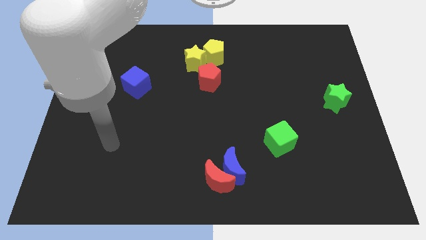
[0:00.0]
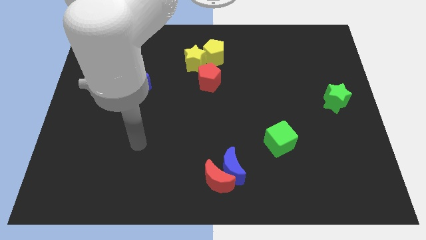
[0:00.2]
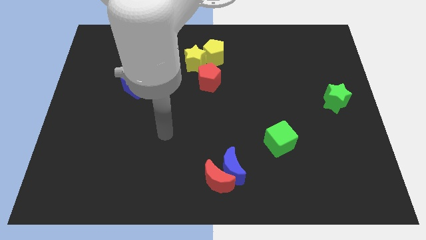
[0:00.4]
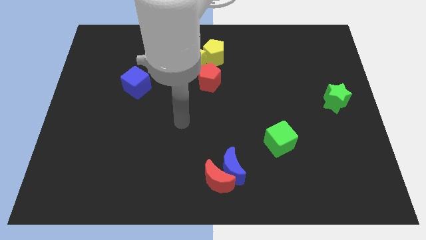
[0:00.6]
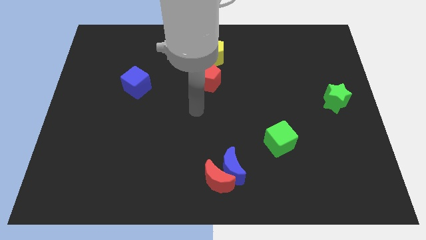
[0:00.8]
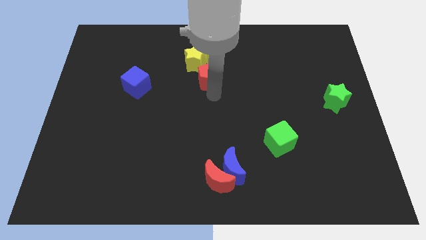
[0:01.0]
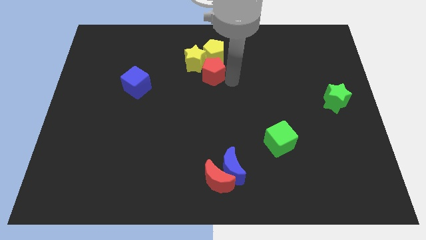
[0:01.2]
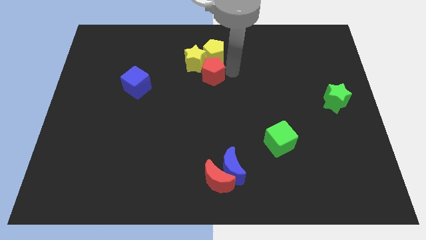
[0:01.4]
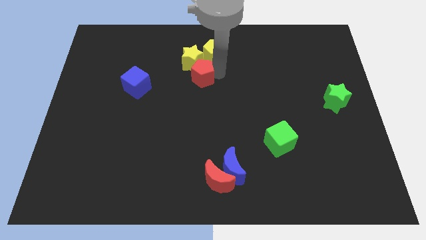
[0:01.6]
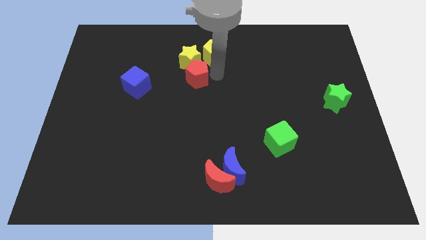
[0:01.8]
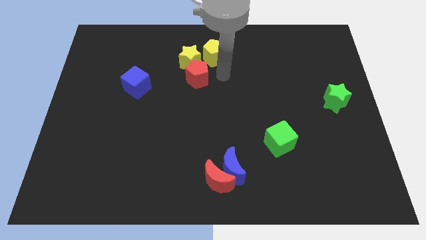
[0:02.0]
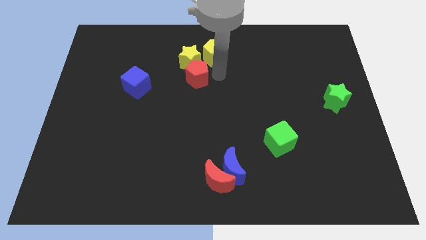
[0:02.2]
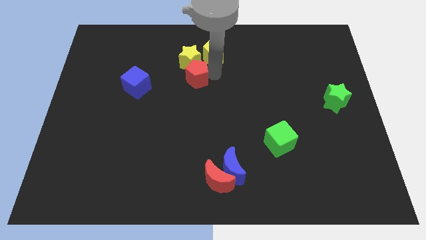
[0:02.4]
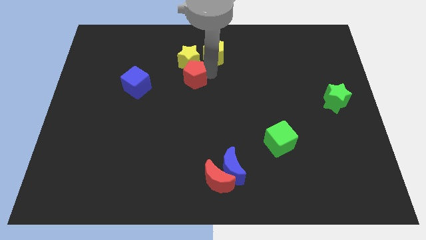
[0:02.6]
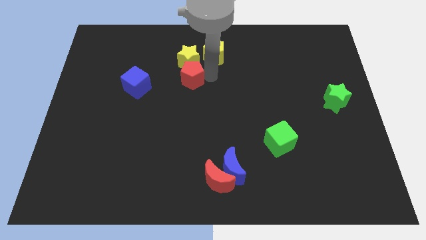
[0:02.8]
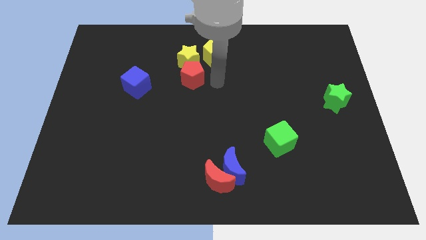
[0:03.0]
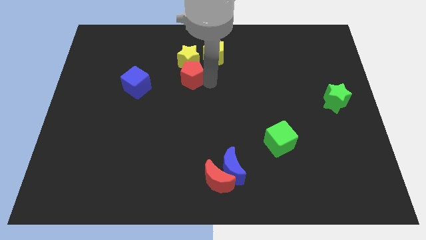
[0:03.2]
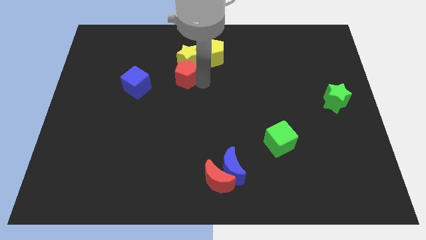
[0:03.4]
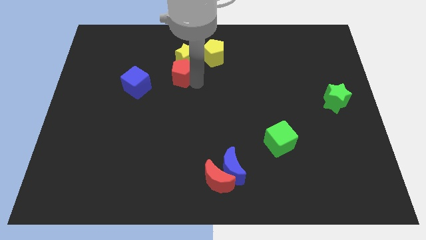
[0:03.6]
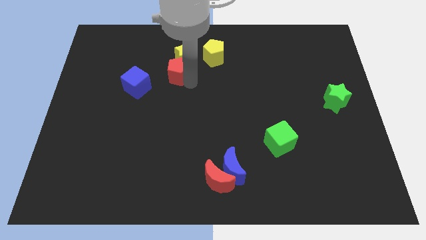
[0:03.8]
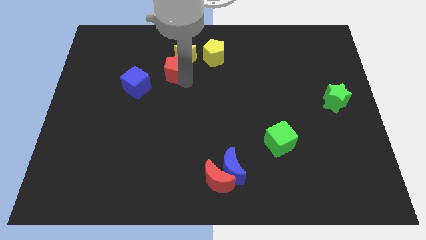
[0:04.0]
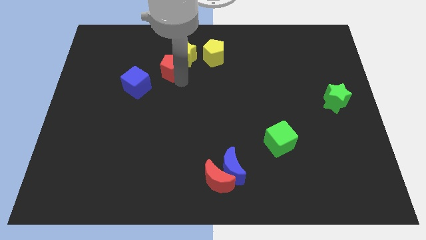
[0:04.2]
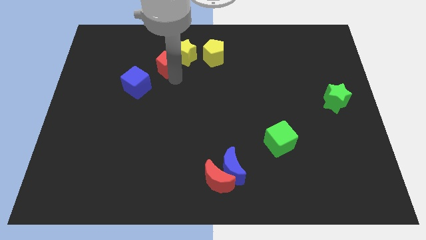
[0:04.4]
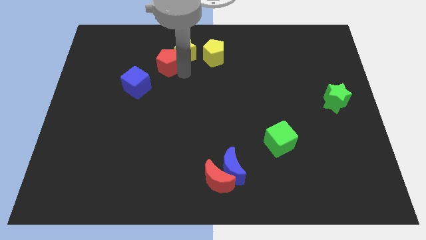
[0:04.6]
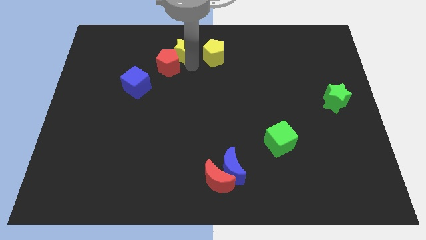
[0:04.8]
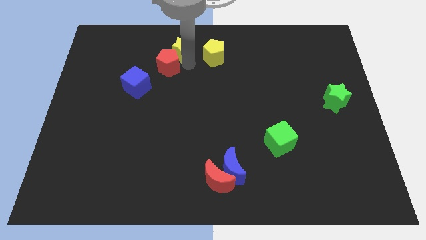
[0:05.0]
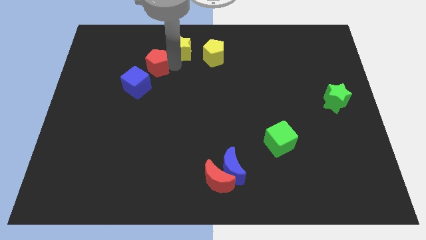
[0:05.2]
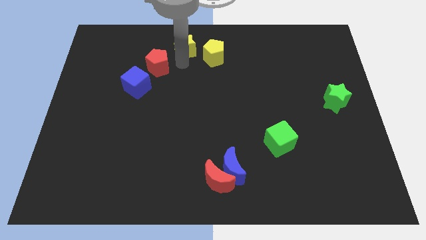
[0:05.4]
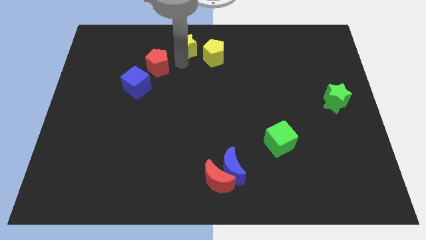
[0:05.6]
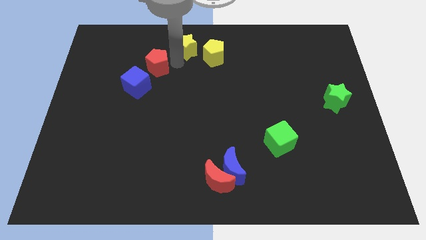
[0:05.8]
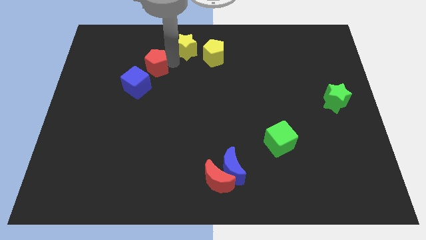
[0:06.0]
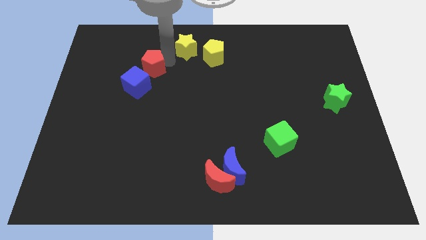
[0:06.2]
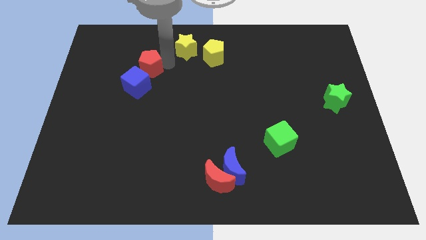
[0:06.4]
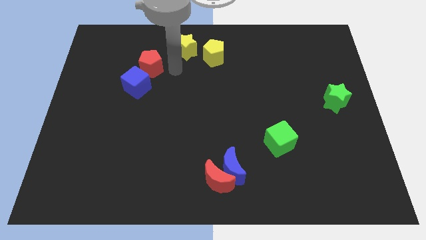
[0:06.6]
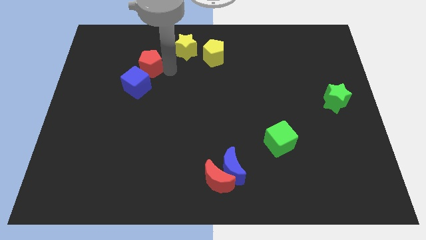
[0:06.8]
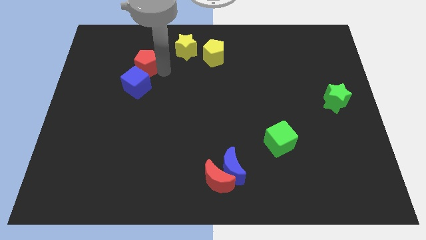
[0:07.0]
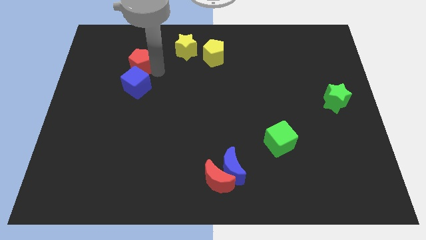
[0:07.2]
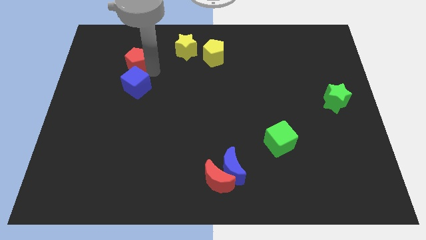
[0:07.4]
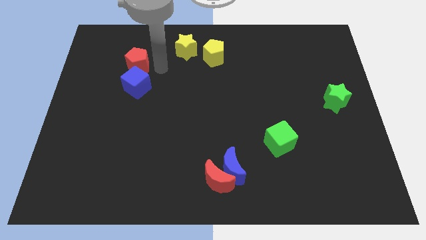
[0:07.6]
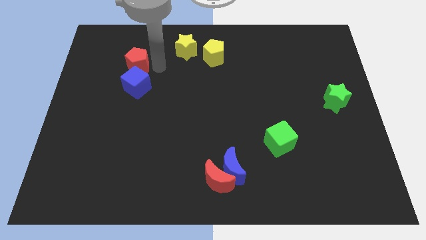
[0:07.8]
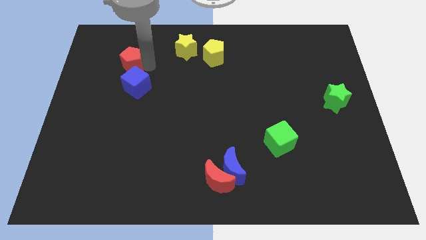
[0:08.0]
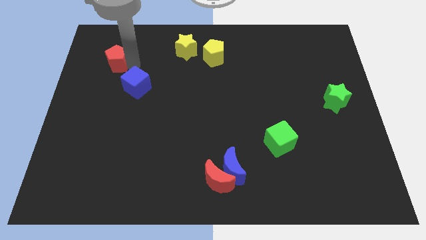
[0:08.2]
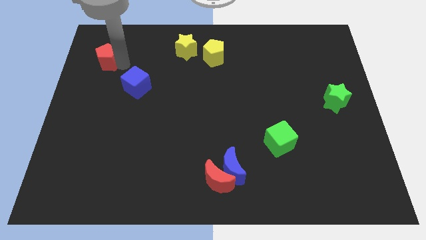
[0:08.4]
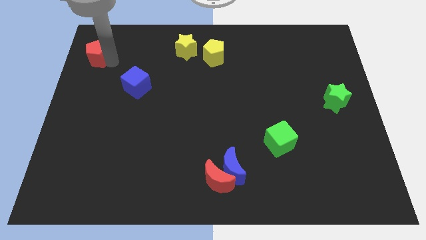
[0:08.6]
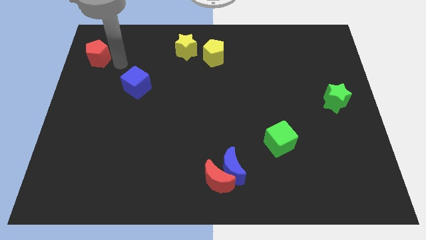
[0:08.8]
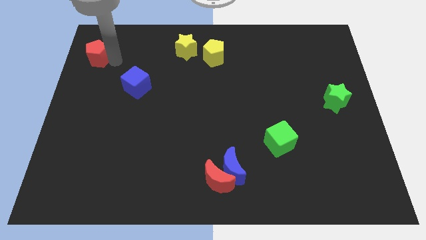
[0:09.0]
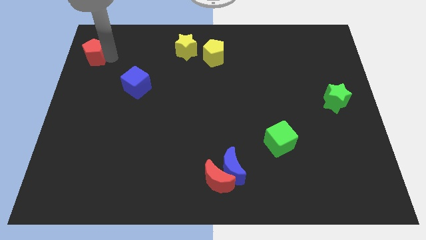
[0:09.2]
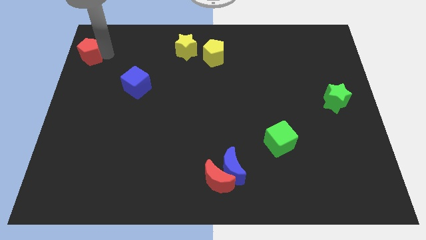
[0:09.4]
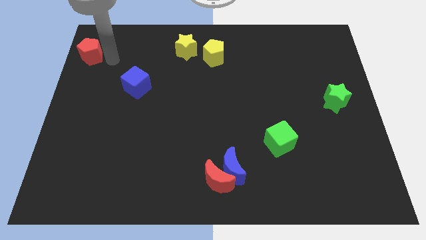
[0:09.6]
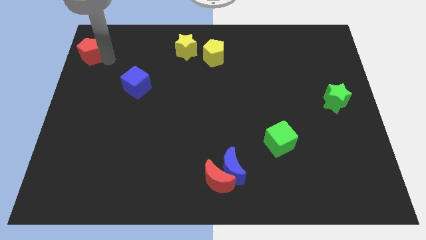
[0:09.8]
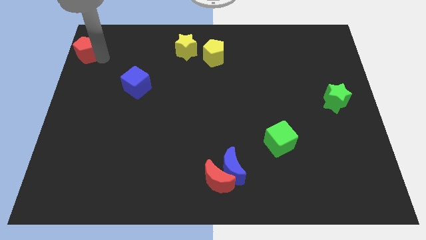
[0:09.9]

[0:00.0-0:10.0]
slide the red pentagon to the top left corner

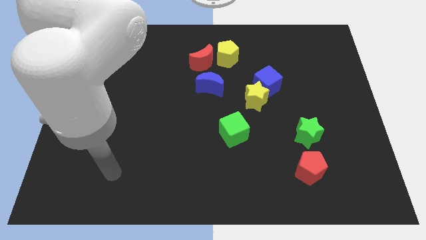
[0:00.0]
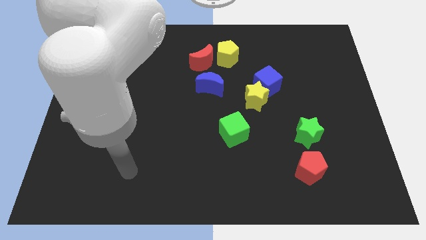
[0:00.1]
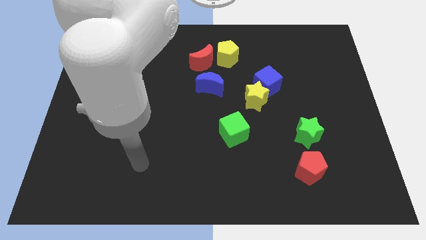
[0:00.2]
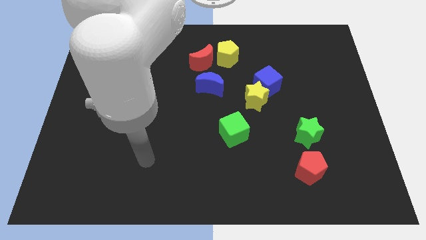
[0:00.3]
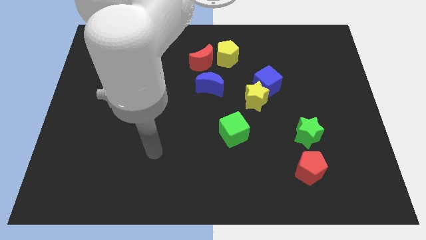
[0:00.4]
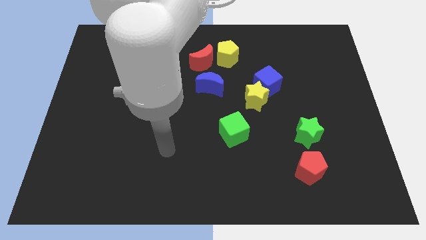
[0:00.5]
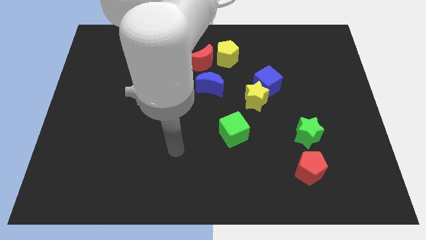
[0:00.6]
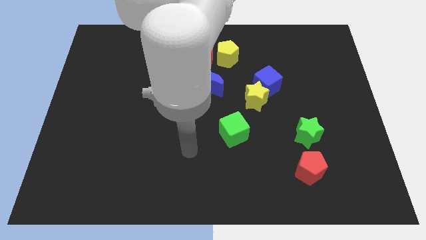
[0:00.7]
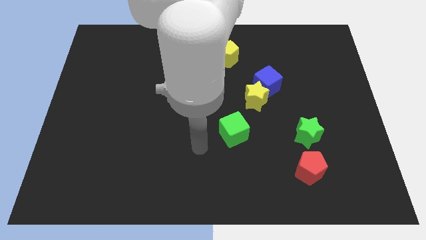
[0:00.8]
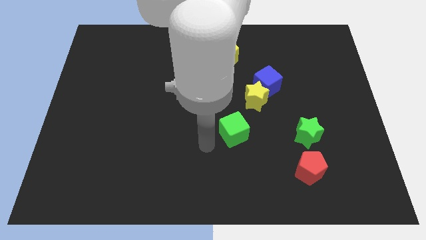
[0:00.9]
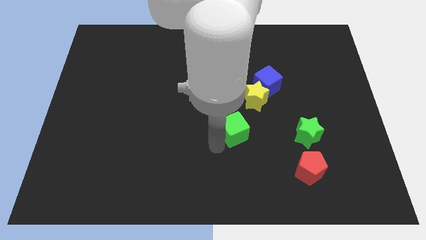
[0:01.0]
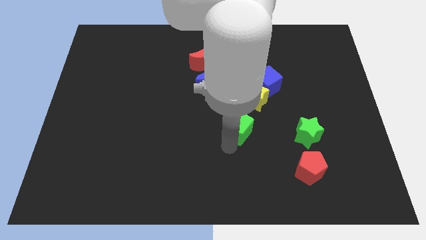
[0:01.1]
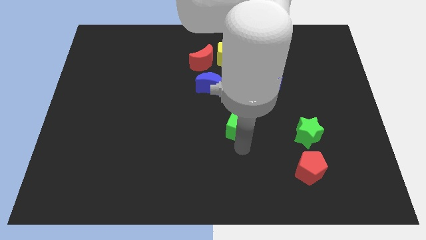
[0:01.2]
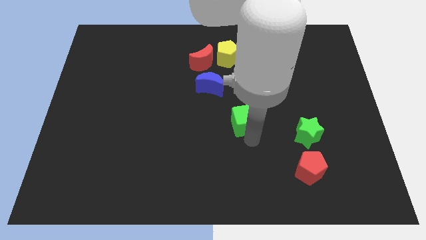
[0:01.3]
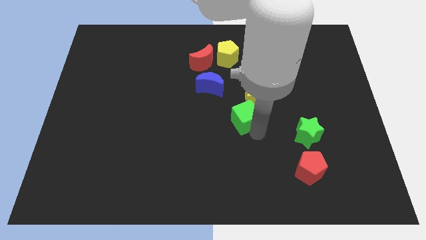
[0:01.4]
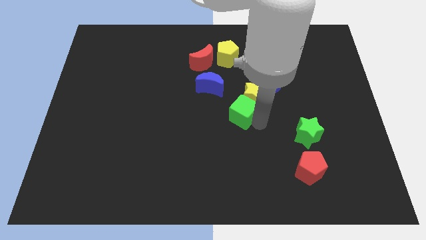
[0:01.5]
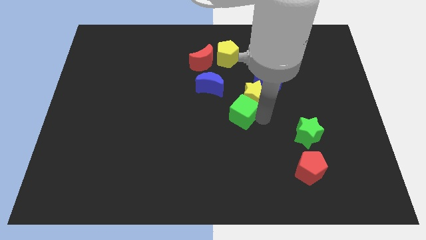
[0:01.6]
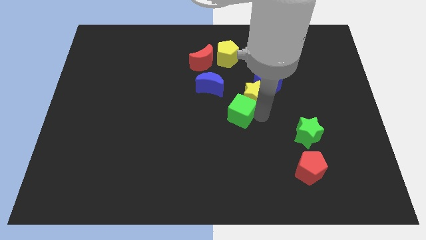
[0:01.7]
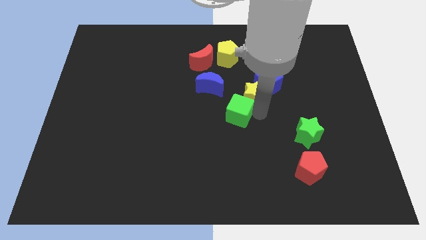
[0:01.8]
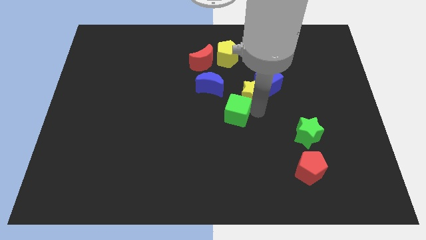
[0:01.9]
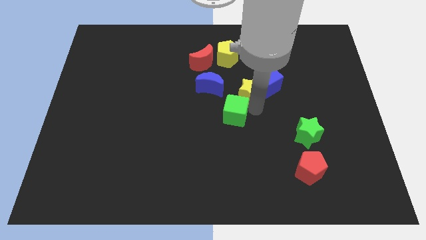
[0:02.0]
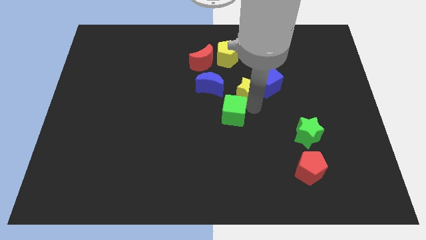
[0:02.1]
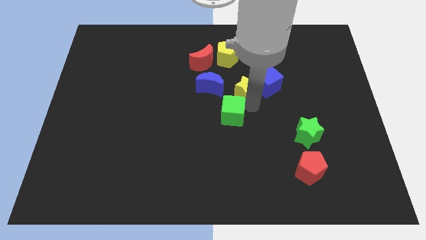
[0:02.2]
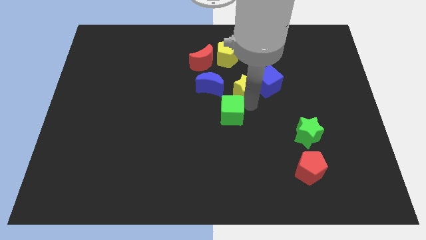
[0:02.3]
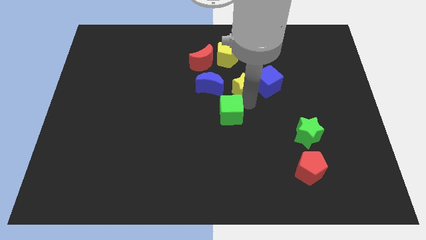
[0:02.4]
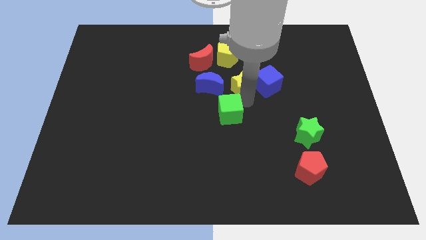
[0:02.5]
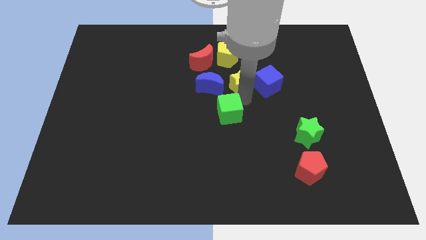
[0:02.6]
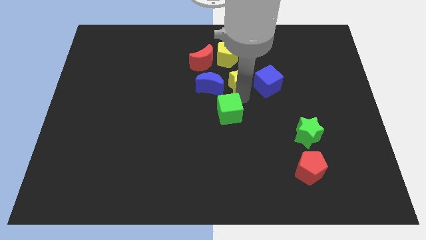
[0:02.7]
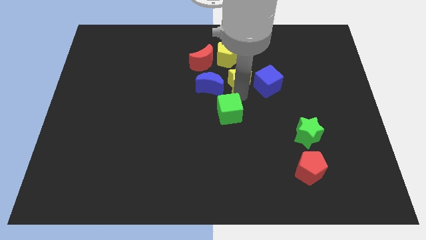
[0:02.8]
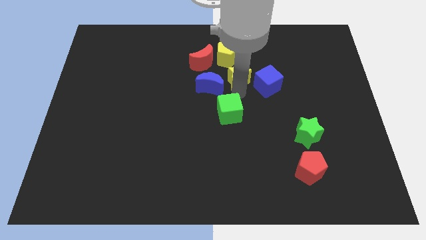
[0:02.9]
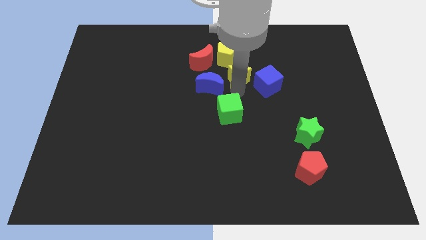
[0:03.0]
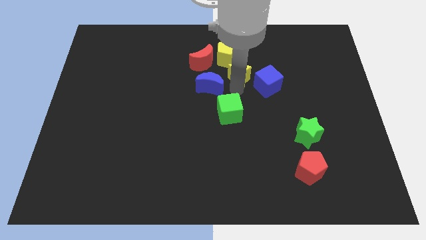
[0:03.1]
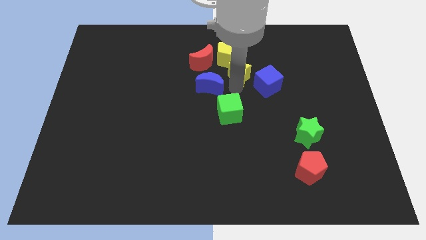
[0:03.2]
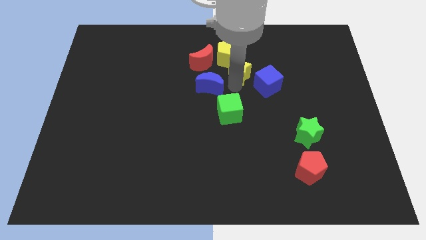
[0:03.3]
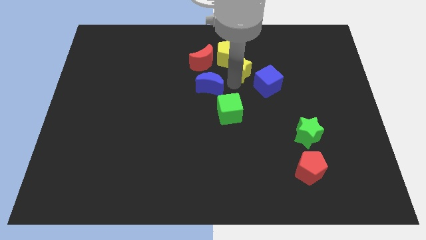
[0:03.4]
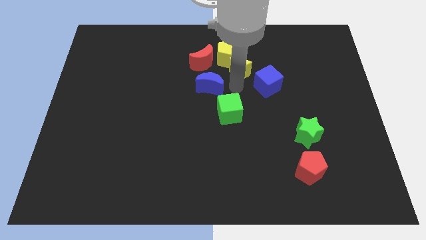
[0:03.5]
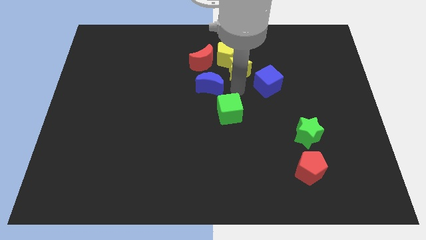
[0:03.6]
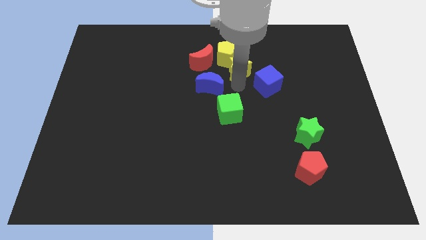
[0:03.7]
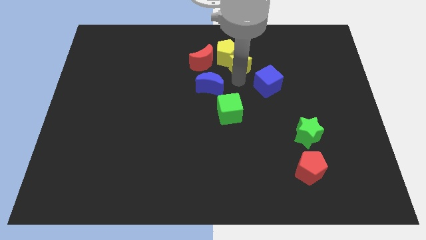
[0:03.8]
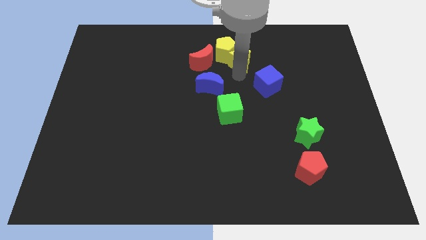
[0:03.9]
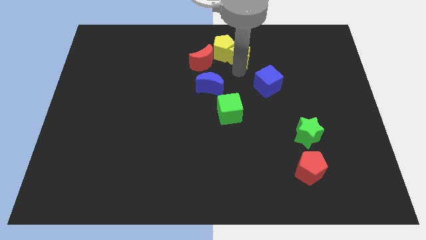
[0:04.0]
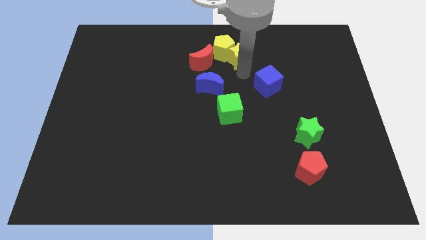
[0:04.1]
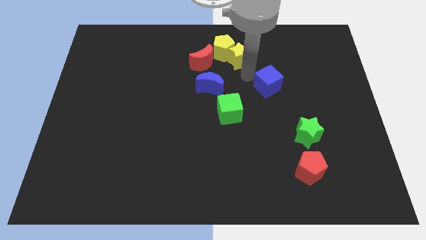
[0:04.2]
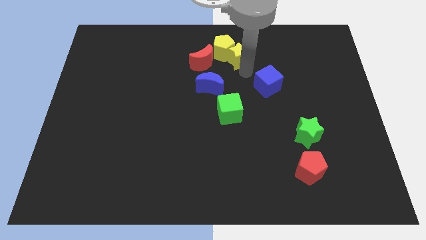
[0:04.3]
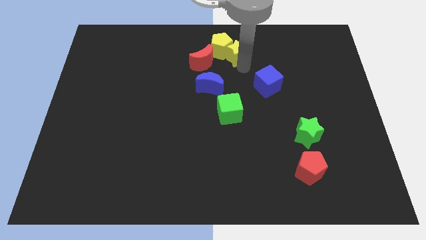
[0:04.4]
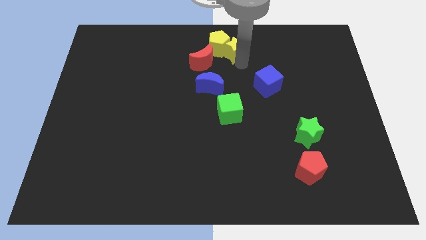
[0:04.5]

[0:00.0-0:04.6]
put the yellow star to the towards your base
